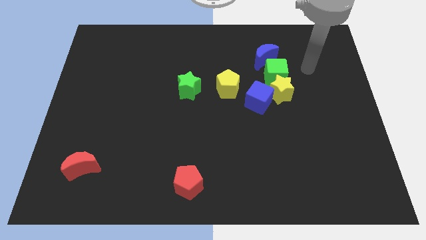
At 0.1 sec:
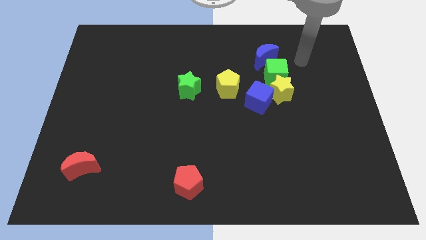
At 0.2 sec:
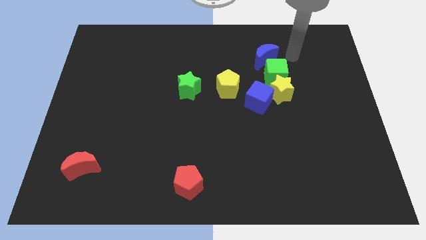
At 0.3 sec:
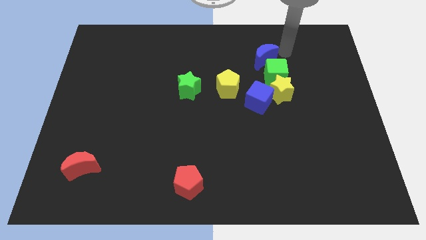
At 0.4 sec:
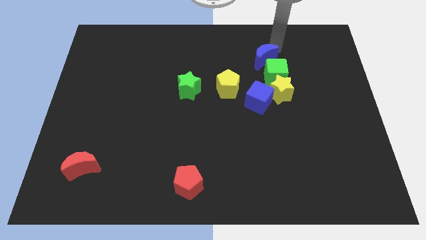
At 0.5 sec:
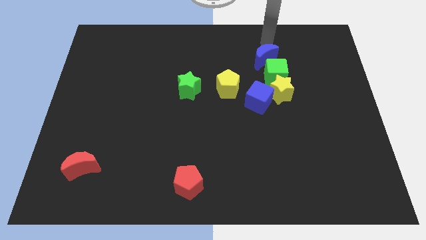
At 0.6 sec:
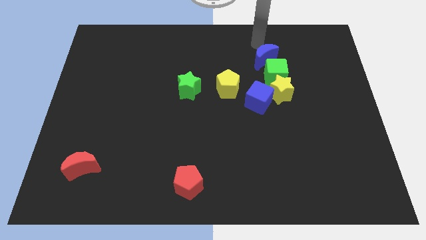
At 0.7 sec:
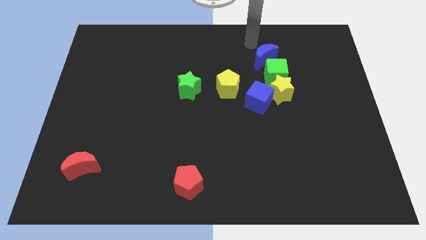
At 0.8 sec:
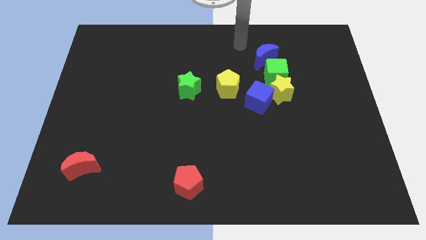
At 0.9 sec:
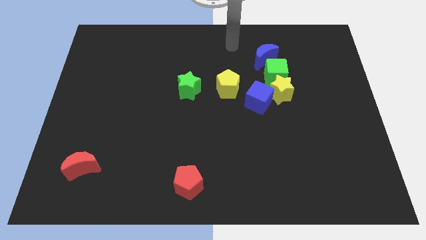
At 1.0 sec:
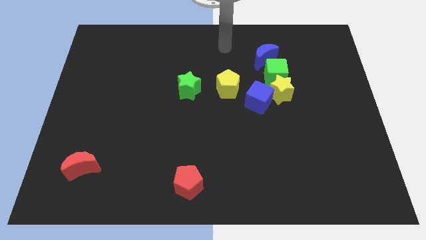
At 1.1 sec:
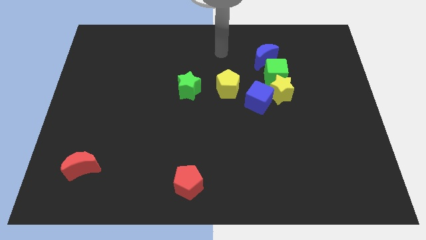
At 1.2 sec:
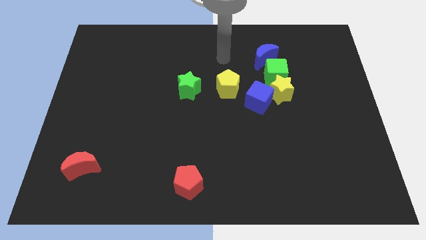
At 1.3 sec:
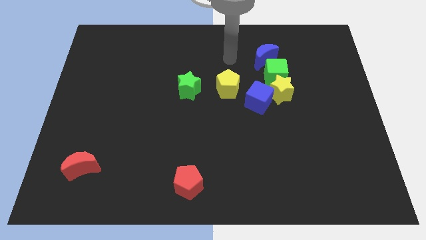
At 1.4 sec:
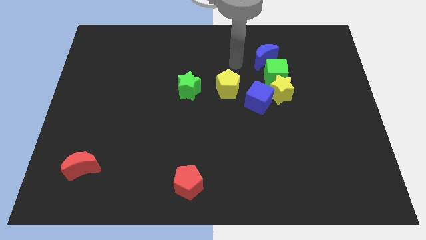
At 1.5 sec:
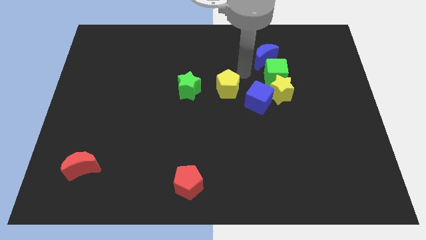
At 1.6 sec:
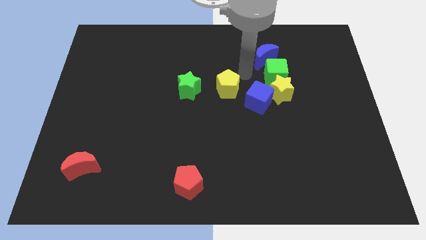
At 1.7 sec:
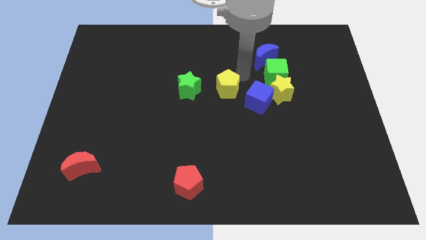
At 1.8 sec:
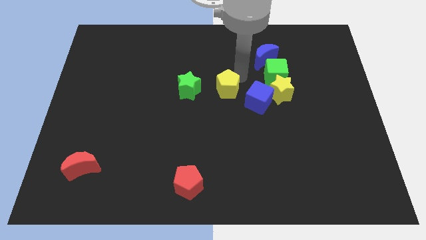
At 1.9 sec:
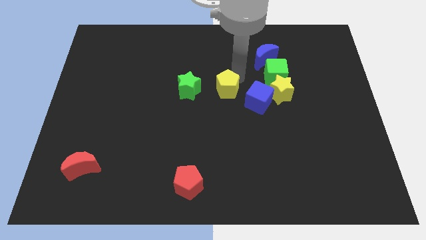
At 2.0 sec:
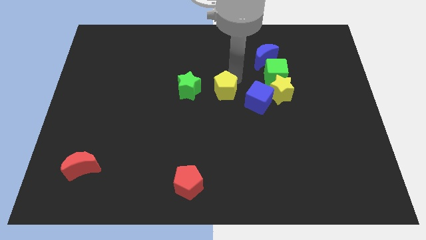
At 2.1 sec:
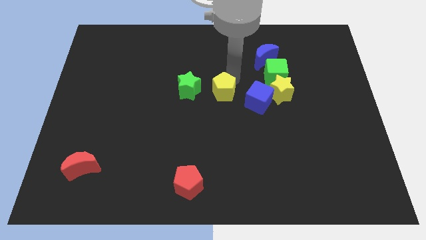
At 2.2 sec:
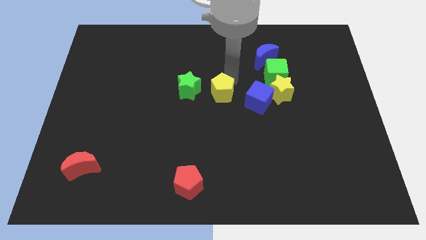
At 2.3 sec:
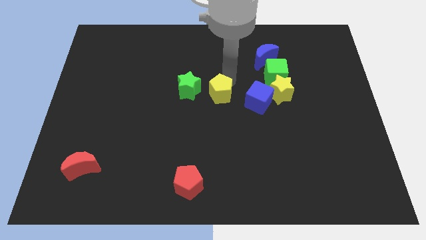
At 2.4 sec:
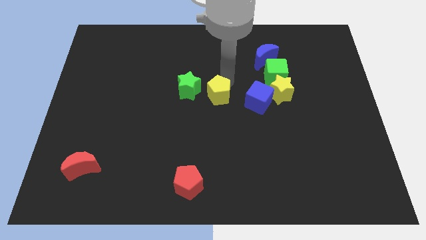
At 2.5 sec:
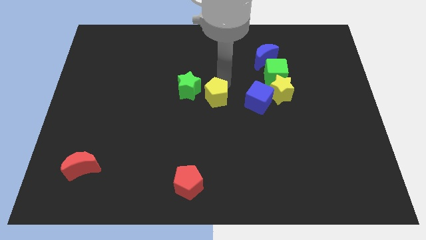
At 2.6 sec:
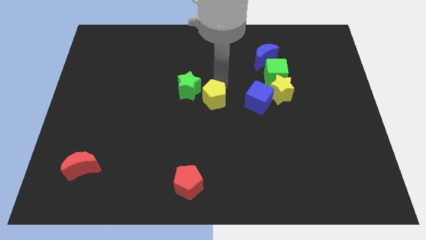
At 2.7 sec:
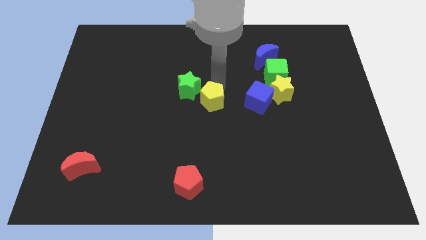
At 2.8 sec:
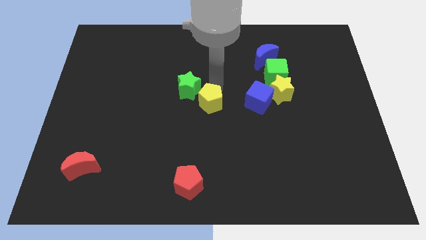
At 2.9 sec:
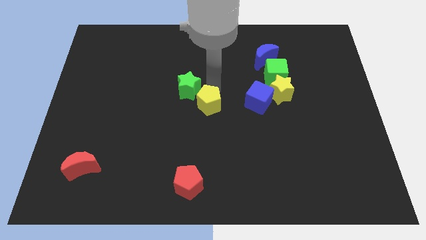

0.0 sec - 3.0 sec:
move the yellow pentagon somewhat diagonally downwards and left

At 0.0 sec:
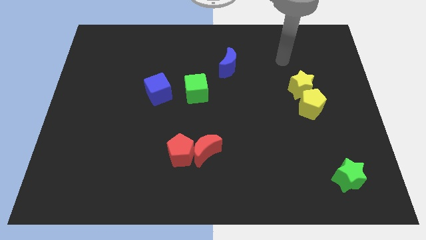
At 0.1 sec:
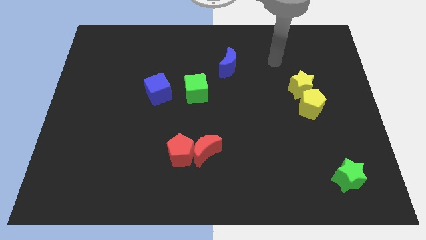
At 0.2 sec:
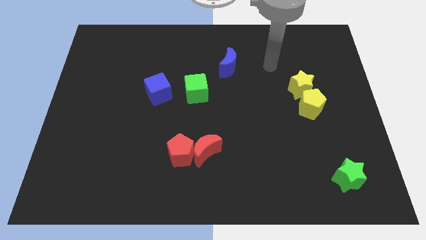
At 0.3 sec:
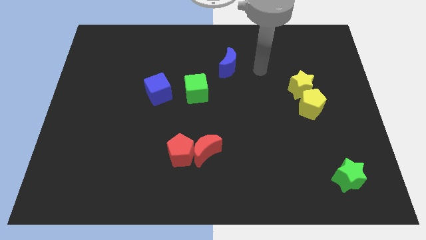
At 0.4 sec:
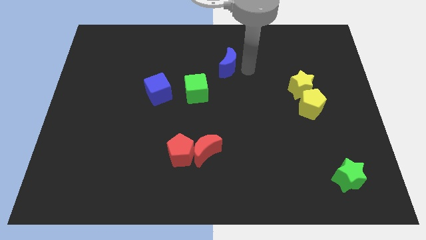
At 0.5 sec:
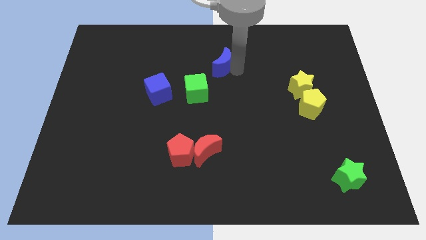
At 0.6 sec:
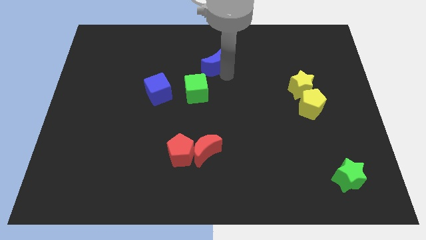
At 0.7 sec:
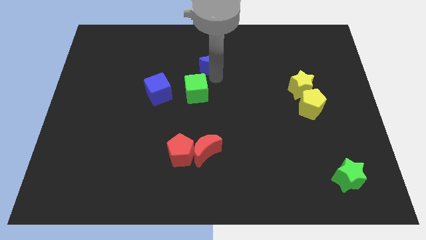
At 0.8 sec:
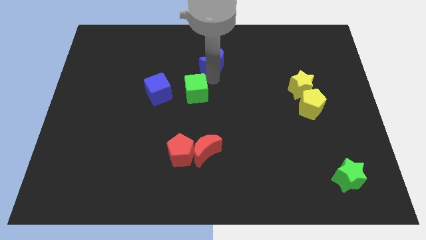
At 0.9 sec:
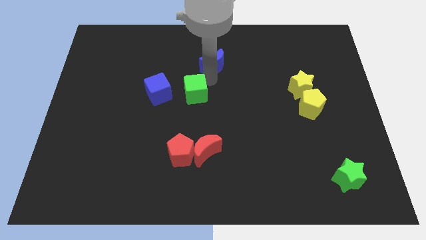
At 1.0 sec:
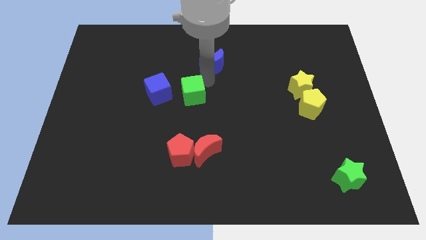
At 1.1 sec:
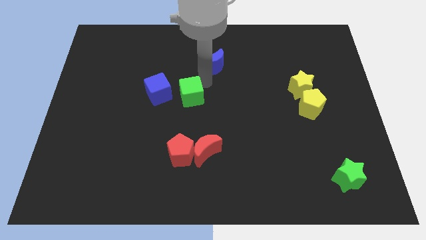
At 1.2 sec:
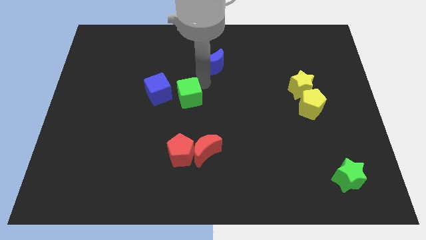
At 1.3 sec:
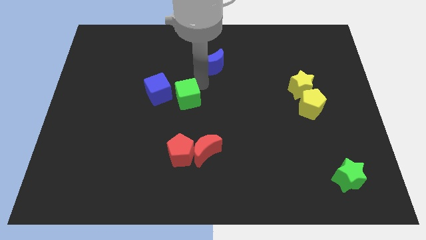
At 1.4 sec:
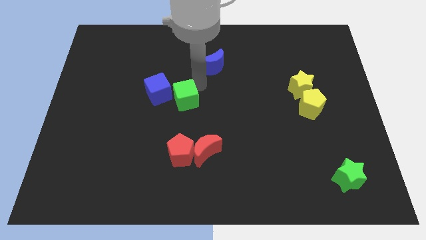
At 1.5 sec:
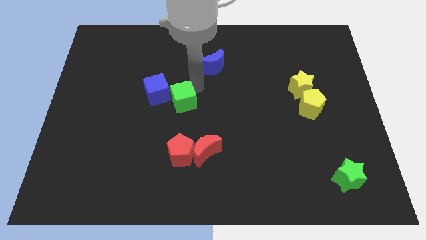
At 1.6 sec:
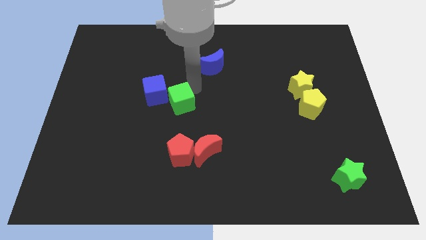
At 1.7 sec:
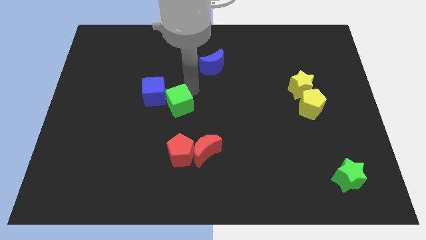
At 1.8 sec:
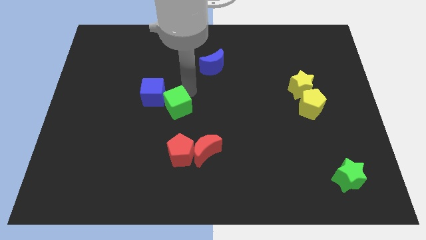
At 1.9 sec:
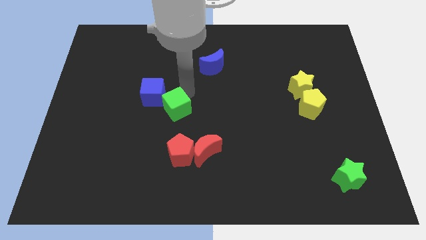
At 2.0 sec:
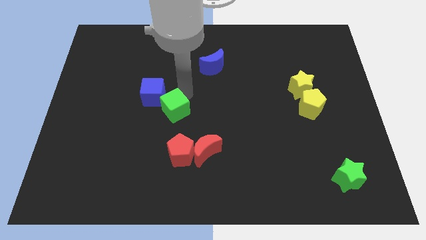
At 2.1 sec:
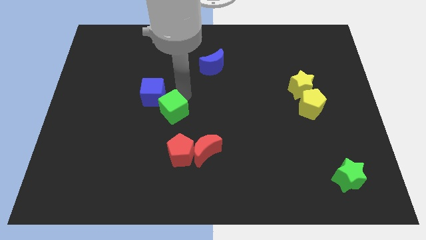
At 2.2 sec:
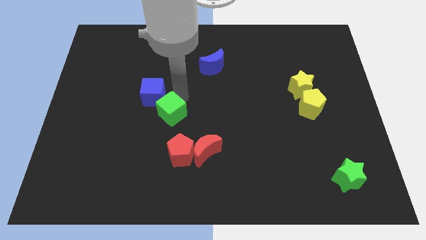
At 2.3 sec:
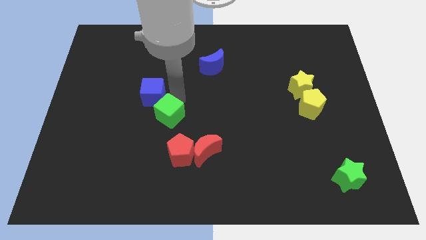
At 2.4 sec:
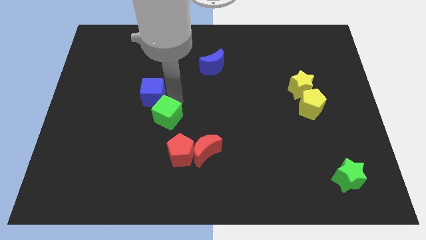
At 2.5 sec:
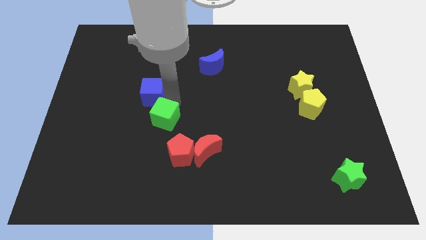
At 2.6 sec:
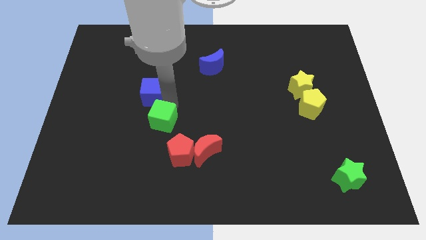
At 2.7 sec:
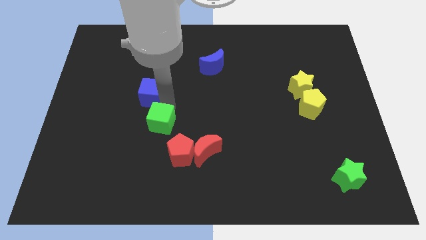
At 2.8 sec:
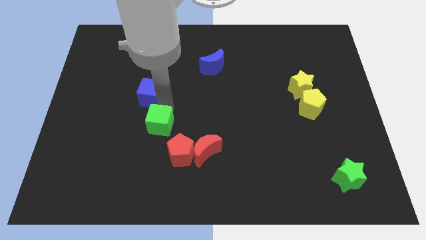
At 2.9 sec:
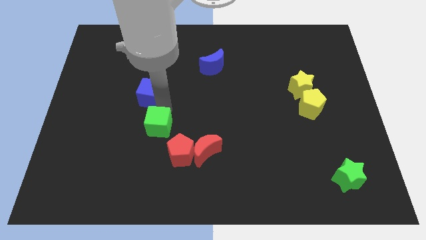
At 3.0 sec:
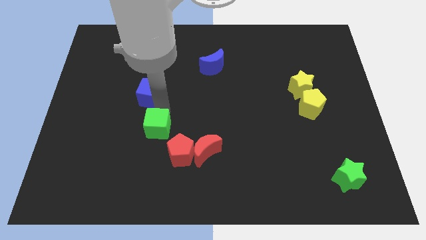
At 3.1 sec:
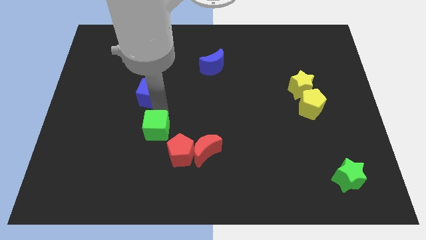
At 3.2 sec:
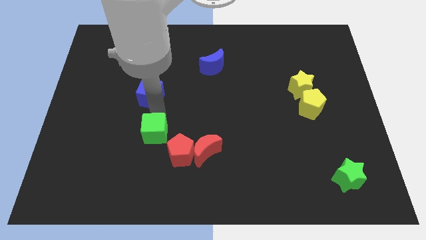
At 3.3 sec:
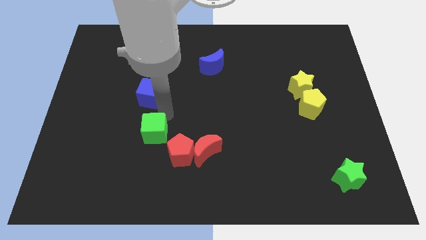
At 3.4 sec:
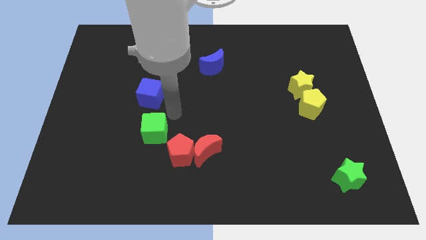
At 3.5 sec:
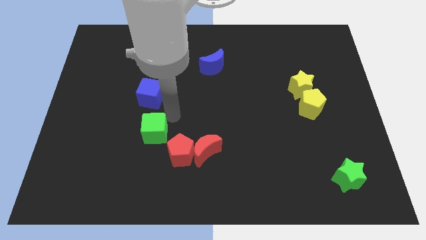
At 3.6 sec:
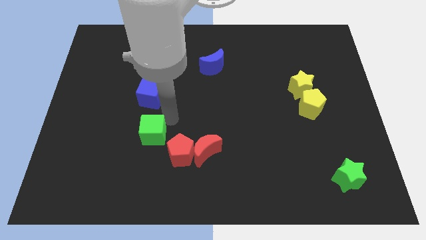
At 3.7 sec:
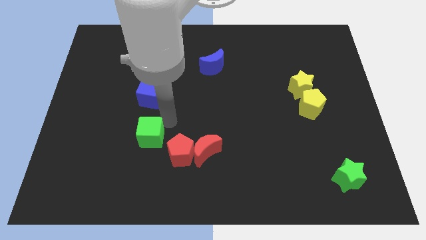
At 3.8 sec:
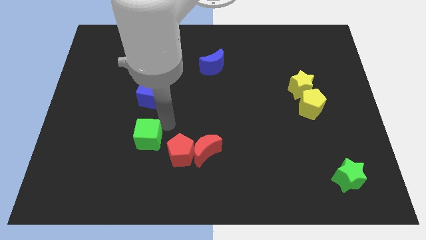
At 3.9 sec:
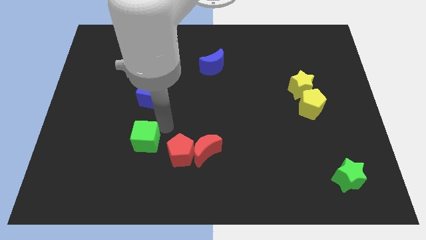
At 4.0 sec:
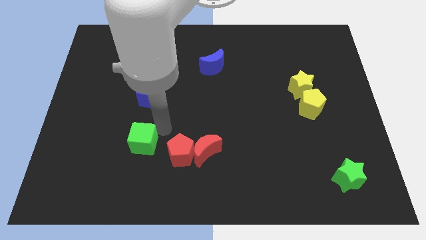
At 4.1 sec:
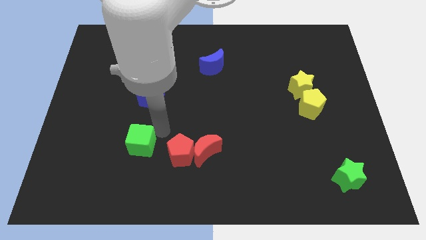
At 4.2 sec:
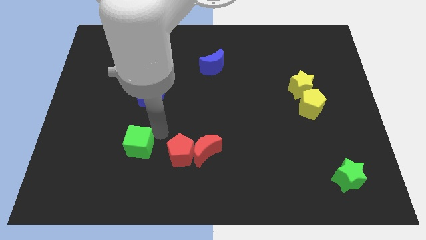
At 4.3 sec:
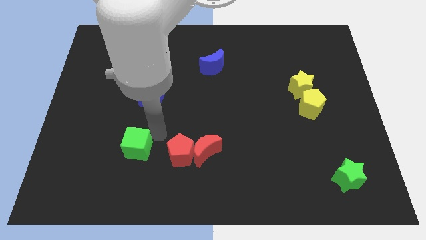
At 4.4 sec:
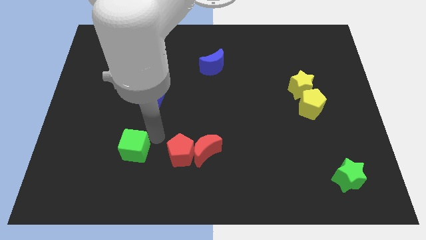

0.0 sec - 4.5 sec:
move the green cube down and to the left diagonally

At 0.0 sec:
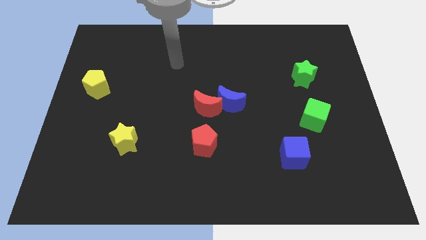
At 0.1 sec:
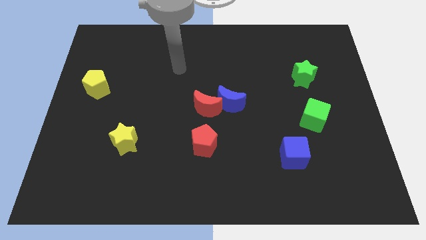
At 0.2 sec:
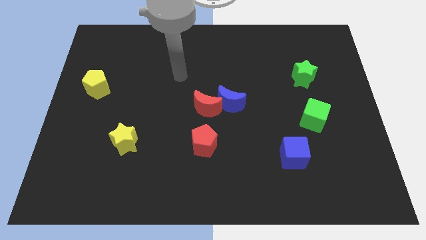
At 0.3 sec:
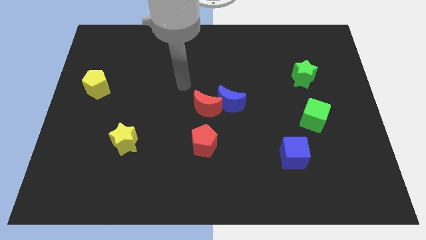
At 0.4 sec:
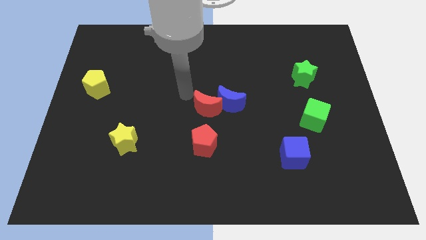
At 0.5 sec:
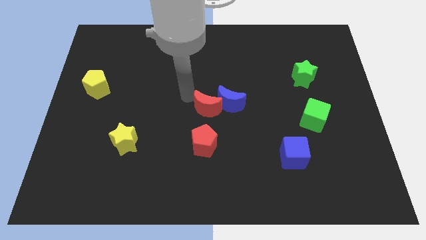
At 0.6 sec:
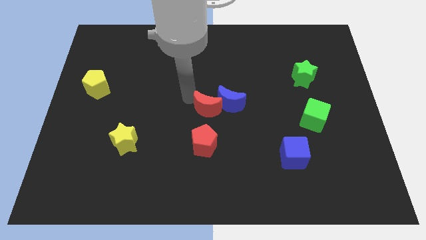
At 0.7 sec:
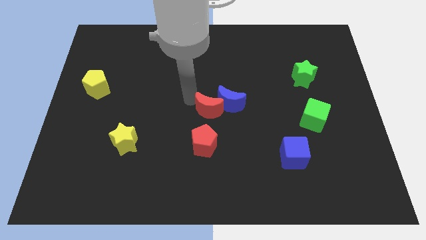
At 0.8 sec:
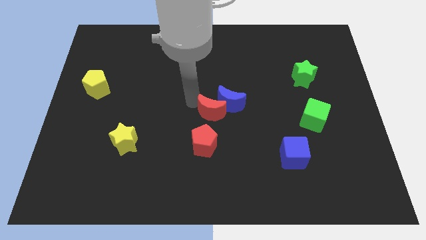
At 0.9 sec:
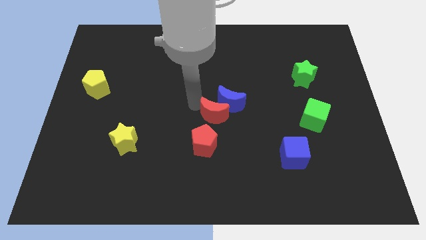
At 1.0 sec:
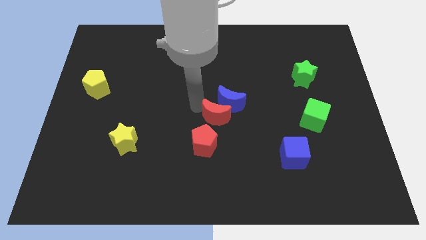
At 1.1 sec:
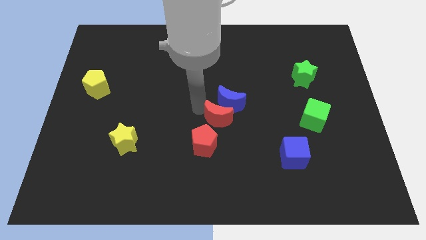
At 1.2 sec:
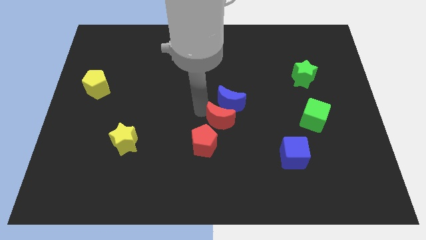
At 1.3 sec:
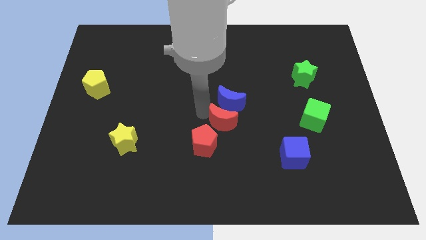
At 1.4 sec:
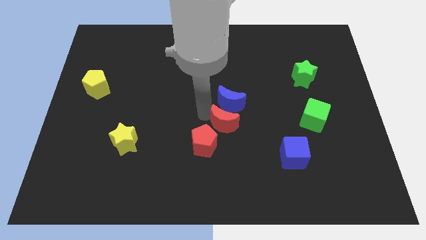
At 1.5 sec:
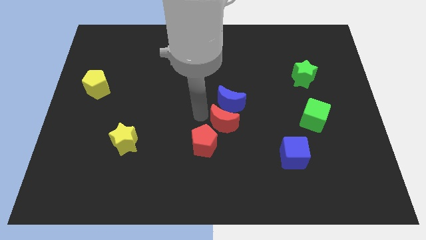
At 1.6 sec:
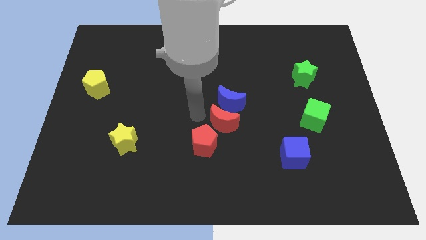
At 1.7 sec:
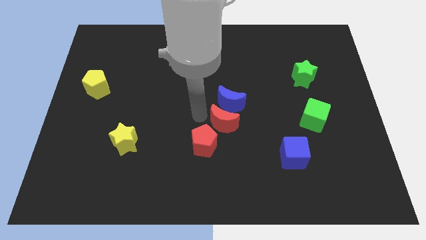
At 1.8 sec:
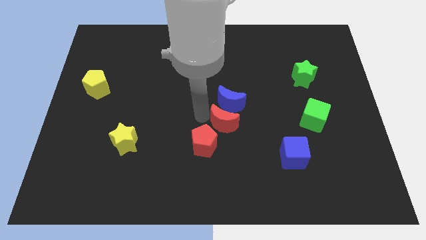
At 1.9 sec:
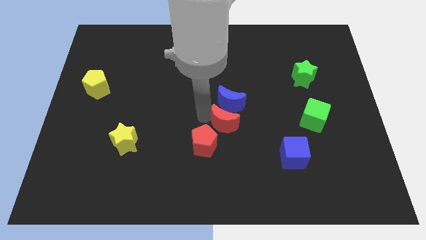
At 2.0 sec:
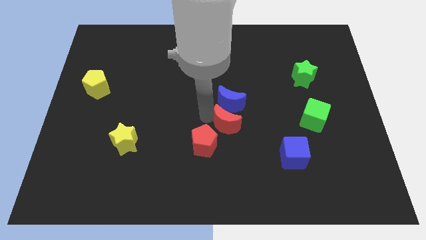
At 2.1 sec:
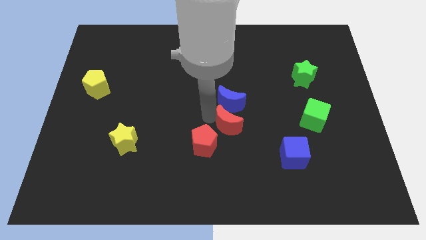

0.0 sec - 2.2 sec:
slightly move the red moon diagonally downwards and to the right
